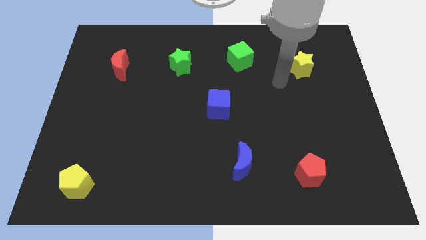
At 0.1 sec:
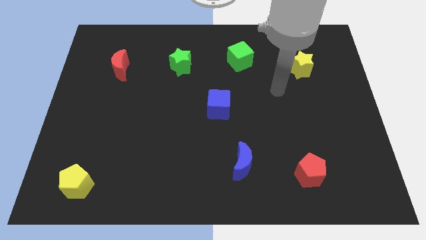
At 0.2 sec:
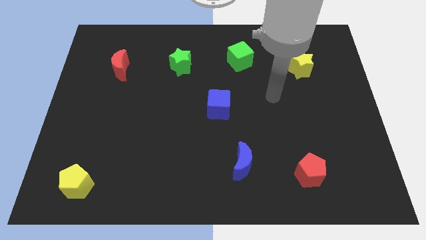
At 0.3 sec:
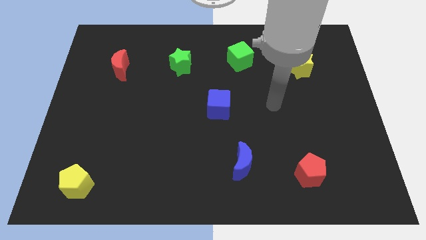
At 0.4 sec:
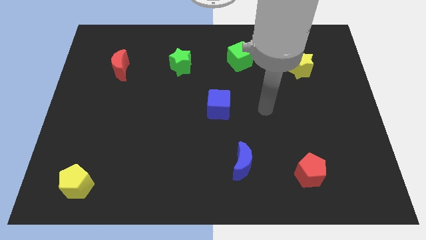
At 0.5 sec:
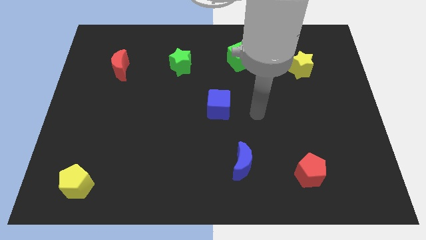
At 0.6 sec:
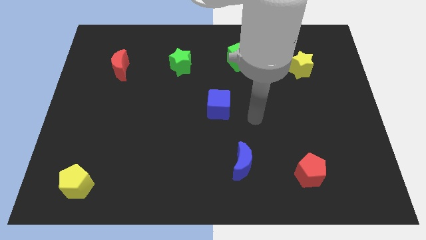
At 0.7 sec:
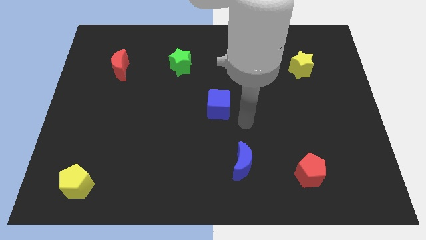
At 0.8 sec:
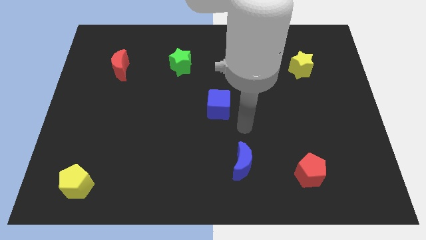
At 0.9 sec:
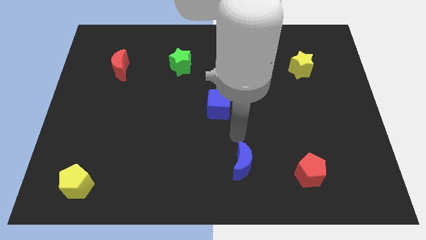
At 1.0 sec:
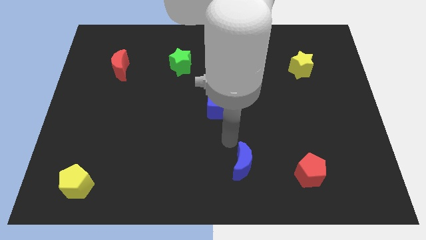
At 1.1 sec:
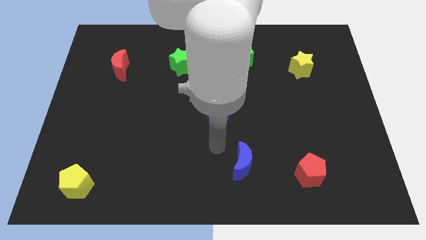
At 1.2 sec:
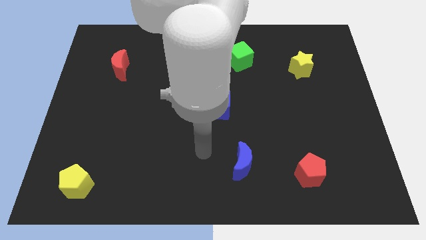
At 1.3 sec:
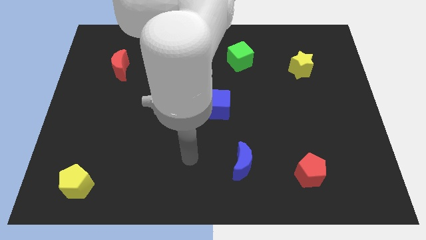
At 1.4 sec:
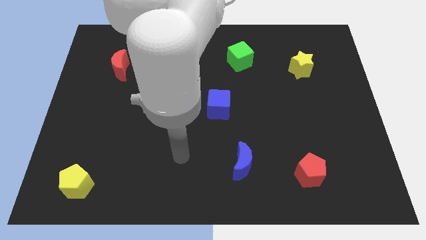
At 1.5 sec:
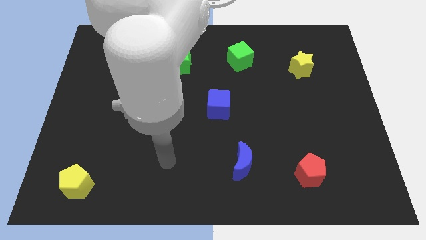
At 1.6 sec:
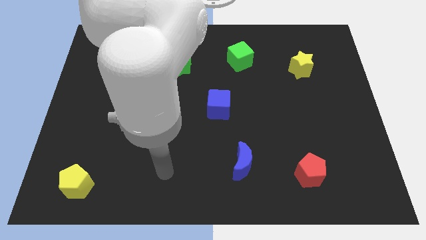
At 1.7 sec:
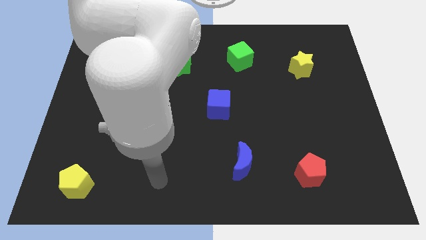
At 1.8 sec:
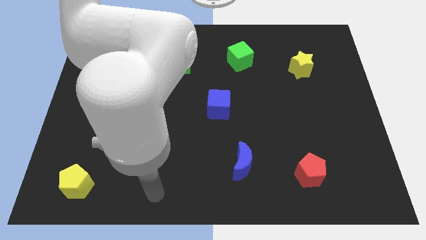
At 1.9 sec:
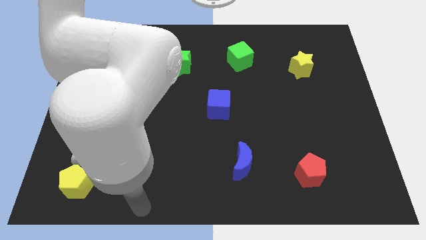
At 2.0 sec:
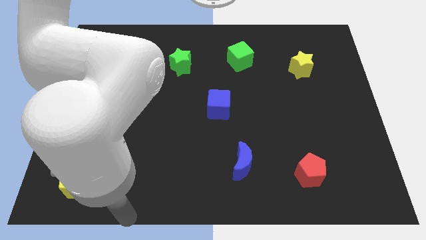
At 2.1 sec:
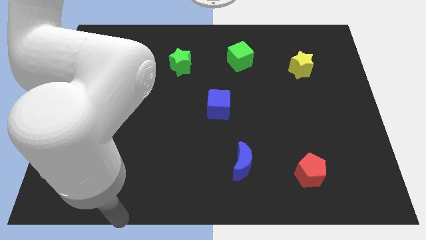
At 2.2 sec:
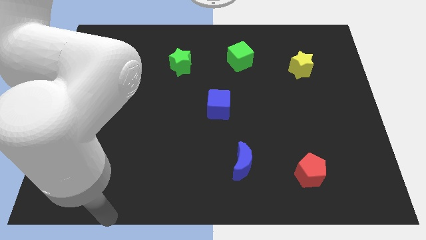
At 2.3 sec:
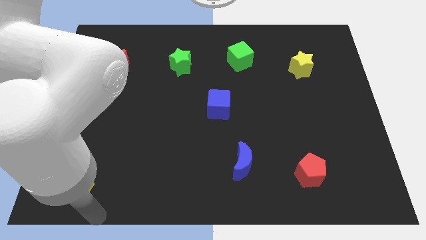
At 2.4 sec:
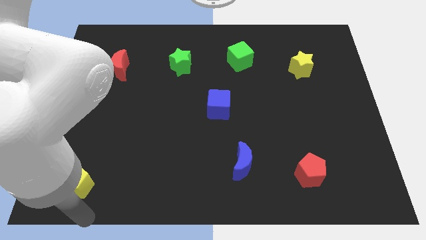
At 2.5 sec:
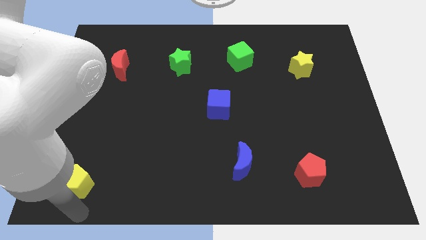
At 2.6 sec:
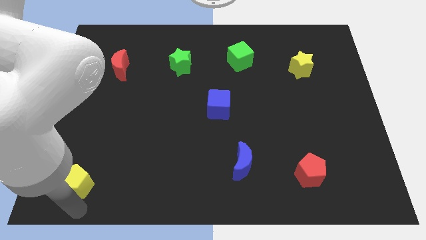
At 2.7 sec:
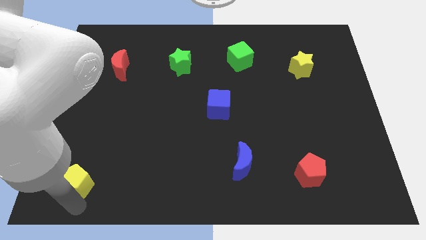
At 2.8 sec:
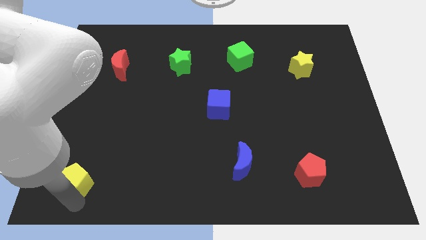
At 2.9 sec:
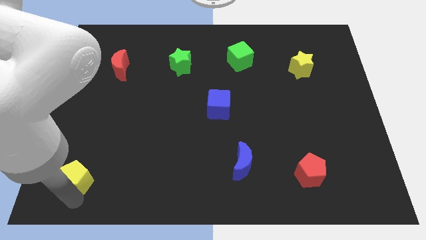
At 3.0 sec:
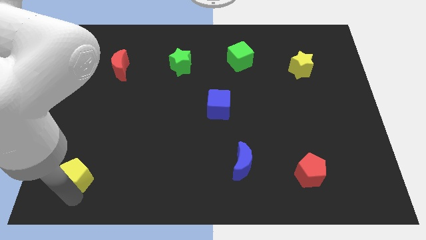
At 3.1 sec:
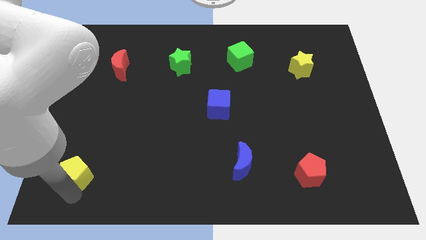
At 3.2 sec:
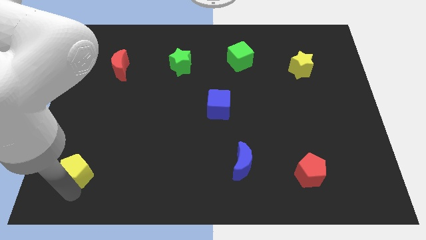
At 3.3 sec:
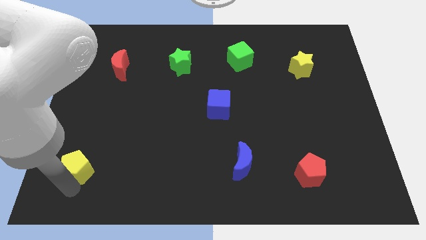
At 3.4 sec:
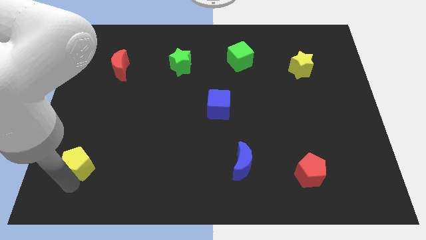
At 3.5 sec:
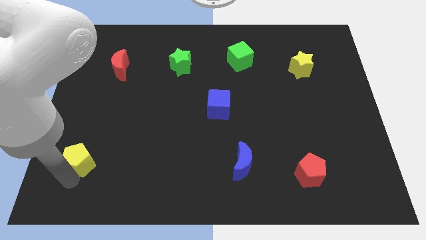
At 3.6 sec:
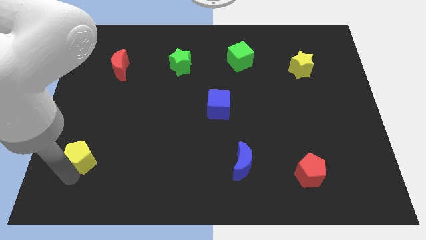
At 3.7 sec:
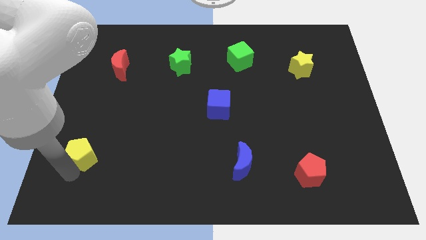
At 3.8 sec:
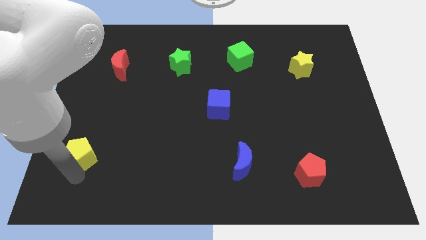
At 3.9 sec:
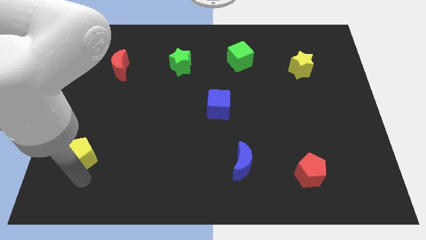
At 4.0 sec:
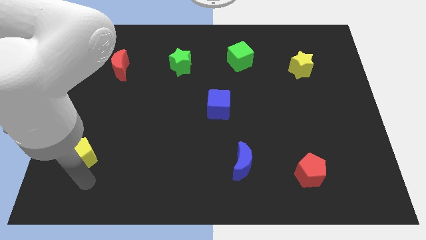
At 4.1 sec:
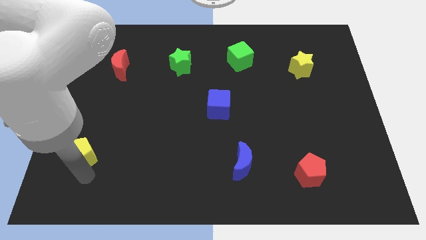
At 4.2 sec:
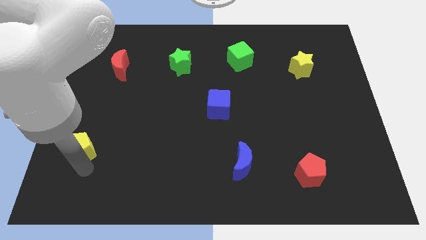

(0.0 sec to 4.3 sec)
push the yellow pentagon a little up

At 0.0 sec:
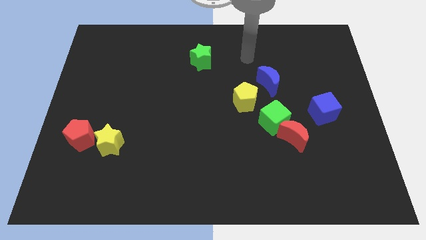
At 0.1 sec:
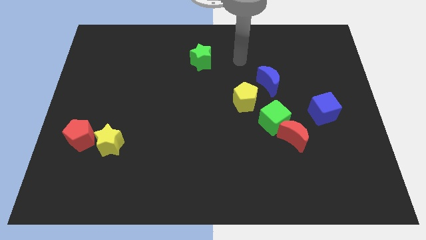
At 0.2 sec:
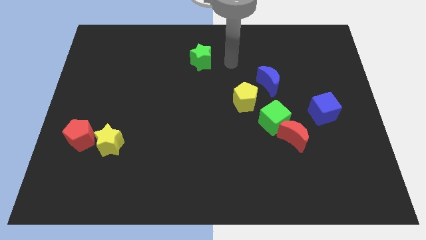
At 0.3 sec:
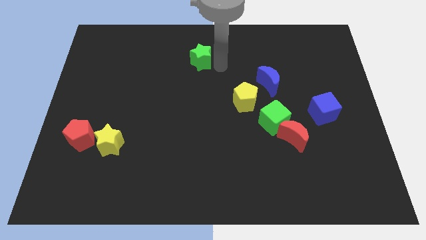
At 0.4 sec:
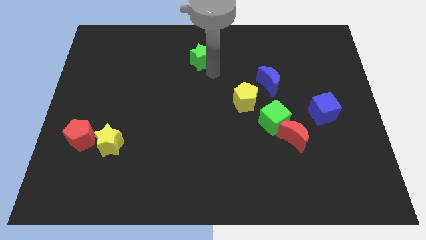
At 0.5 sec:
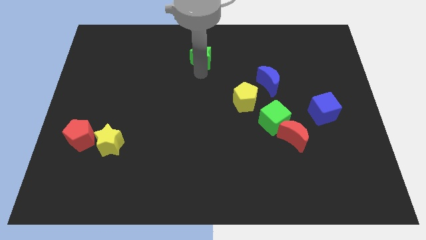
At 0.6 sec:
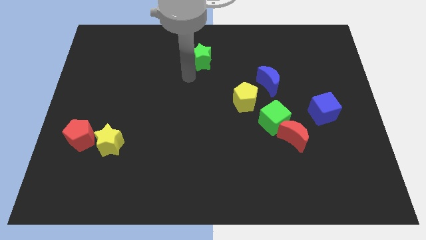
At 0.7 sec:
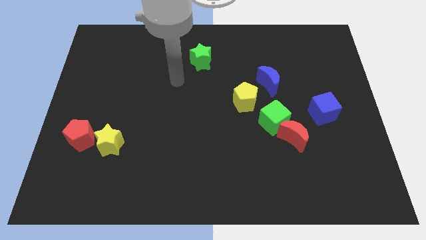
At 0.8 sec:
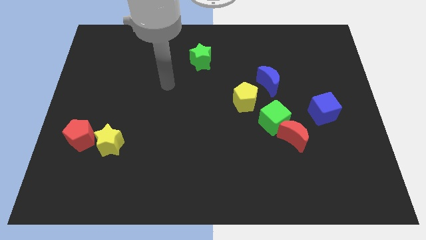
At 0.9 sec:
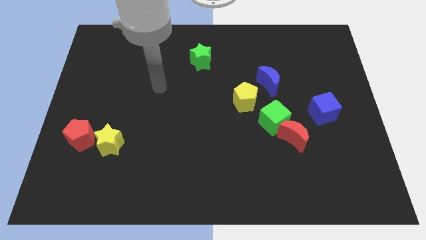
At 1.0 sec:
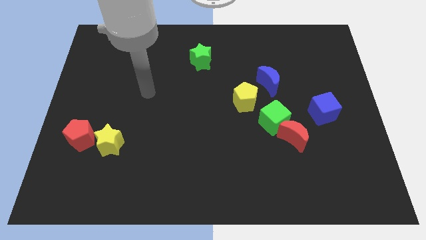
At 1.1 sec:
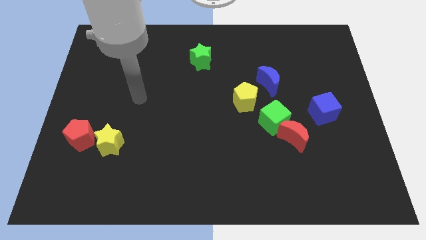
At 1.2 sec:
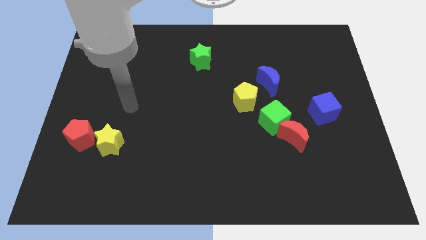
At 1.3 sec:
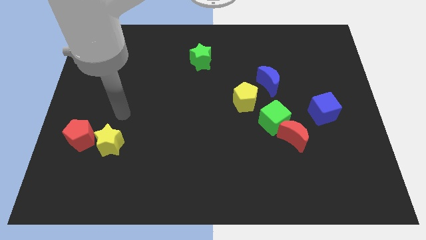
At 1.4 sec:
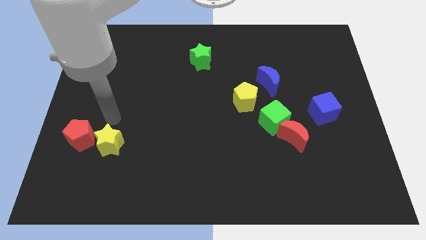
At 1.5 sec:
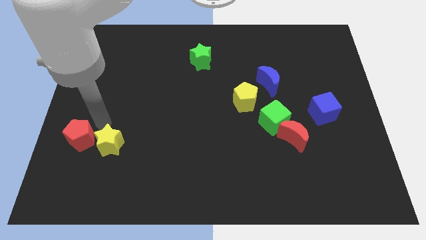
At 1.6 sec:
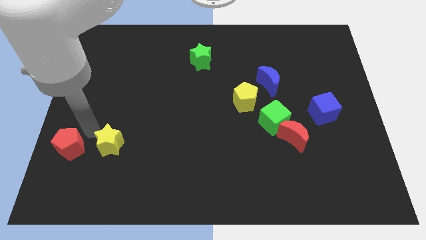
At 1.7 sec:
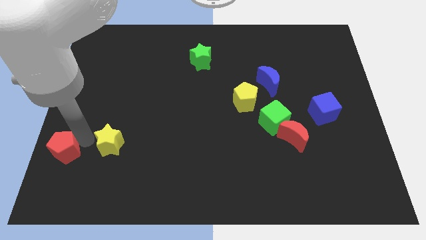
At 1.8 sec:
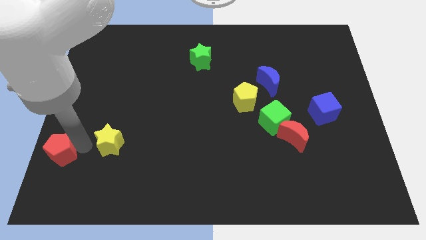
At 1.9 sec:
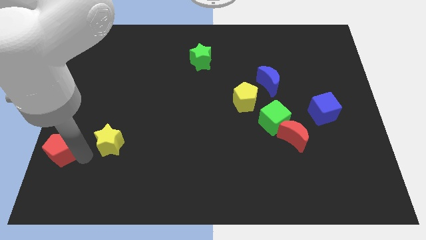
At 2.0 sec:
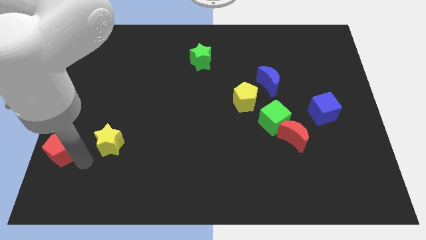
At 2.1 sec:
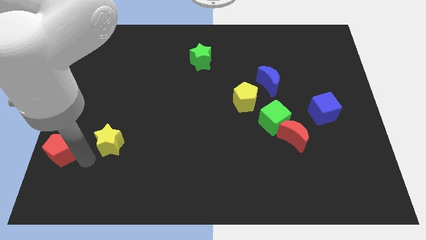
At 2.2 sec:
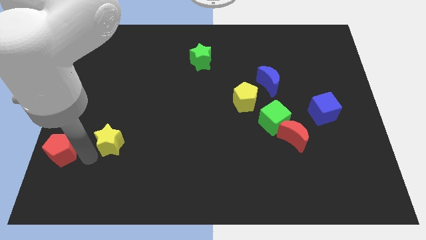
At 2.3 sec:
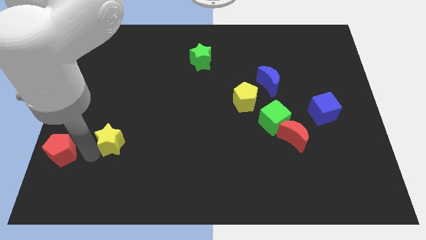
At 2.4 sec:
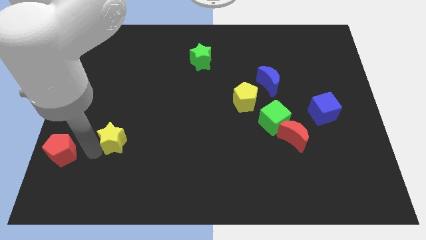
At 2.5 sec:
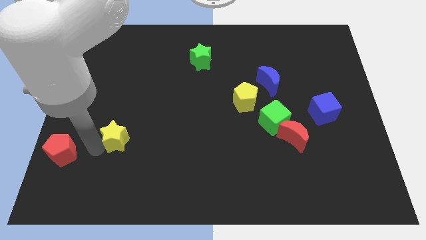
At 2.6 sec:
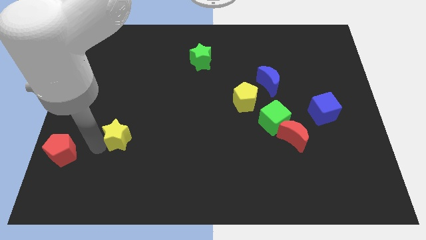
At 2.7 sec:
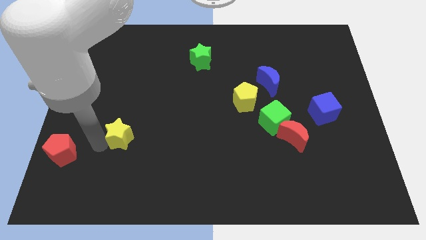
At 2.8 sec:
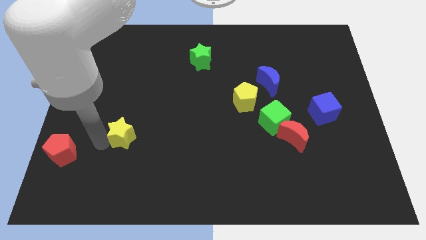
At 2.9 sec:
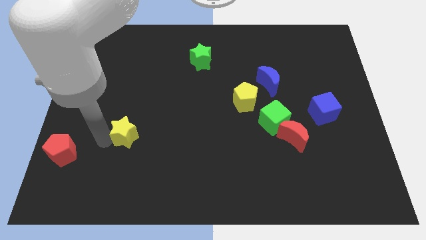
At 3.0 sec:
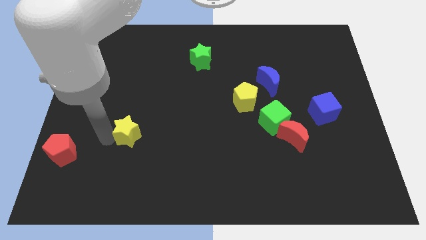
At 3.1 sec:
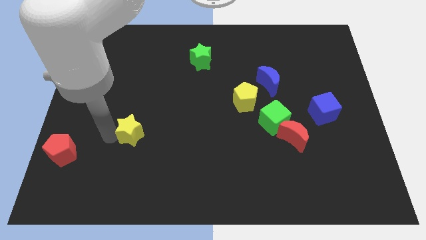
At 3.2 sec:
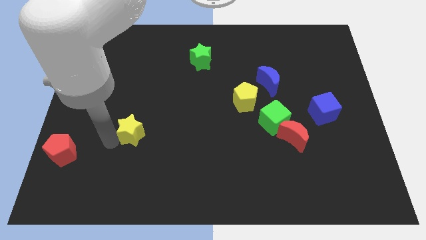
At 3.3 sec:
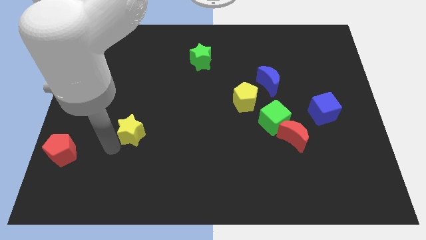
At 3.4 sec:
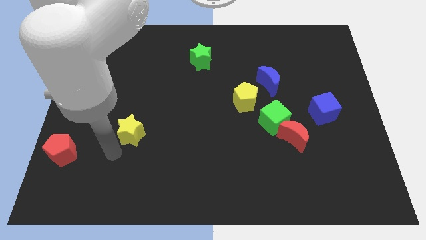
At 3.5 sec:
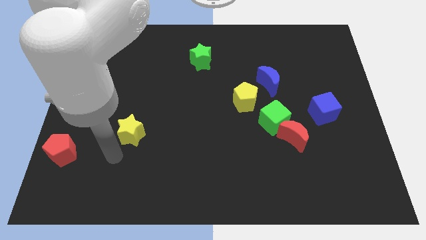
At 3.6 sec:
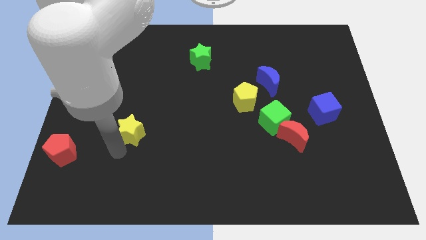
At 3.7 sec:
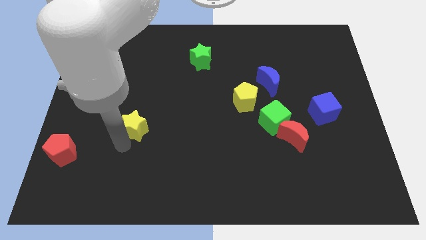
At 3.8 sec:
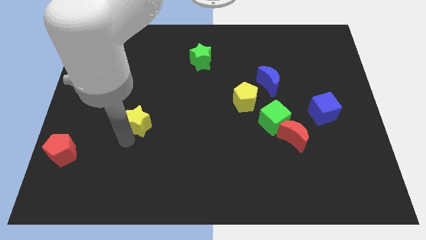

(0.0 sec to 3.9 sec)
slide the yellow star somewhat up and then to the right
